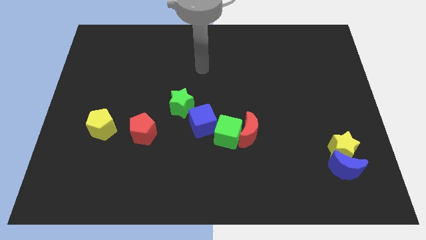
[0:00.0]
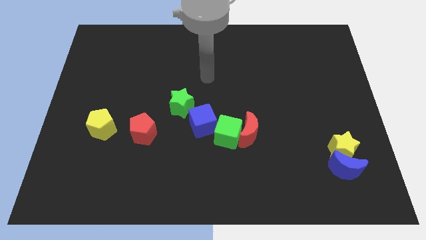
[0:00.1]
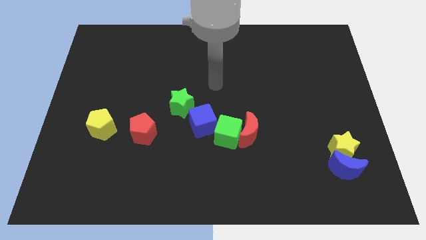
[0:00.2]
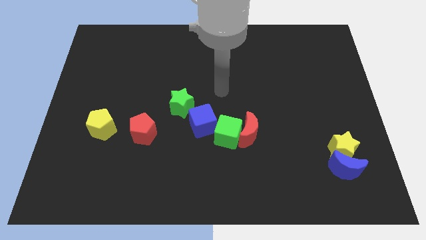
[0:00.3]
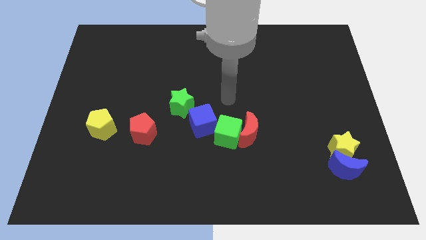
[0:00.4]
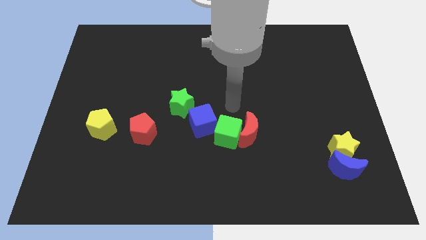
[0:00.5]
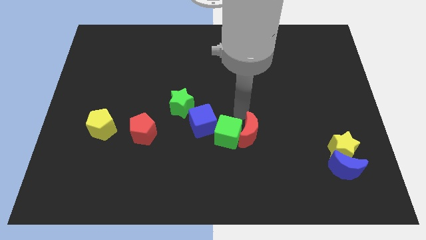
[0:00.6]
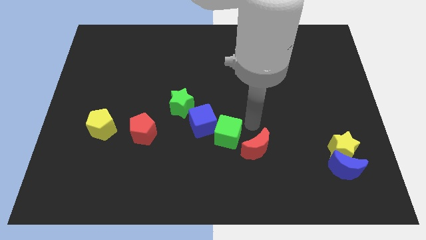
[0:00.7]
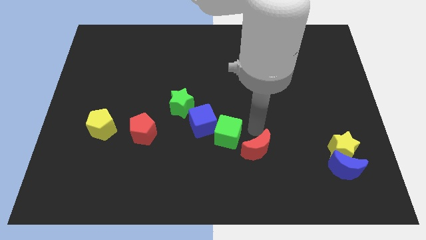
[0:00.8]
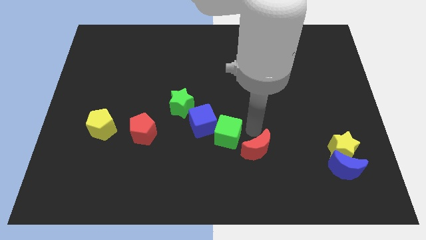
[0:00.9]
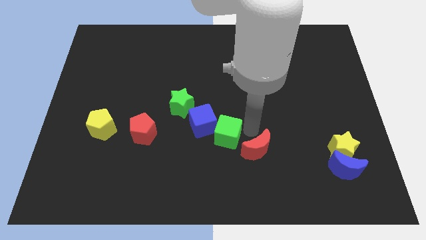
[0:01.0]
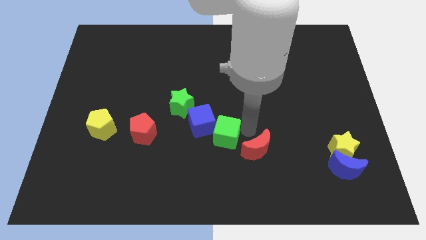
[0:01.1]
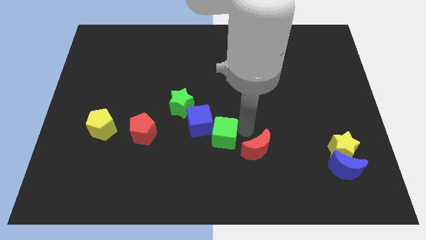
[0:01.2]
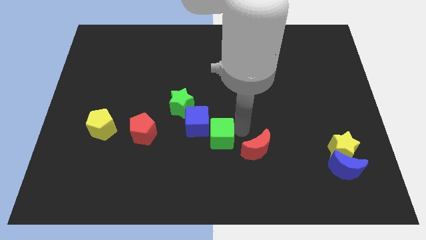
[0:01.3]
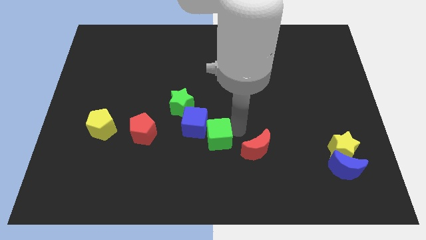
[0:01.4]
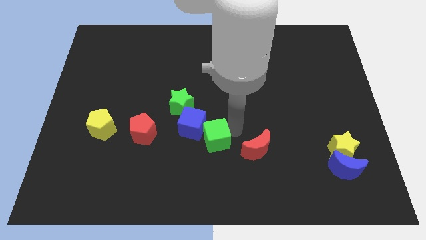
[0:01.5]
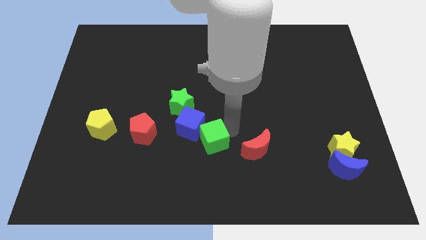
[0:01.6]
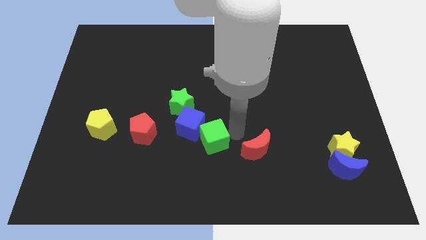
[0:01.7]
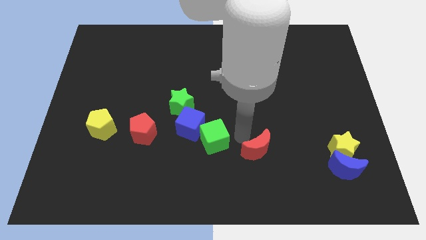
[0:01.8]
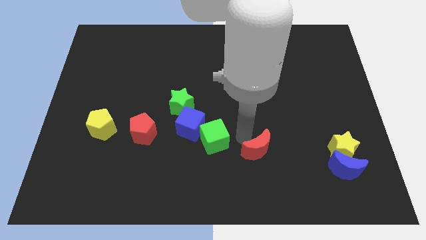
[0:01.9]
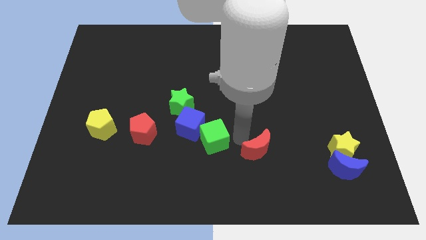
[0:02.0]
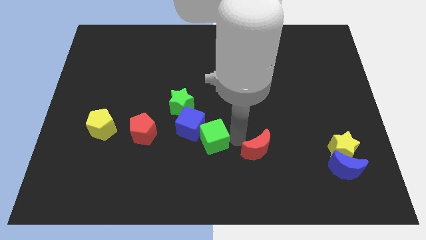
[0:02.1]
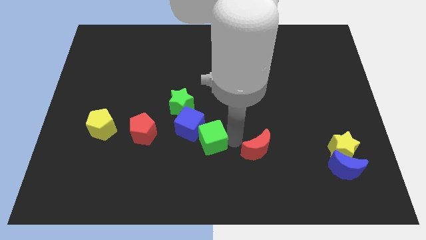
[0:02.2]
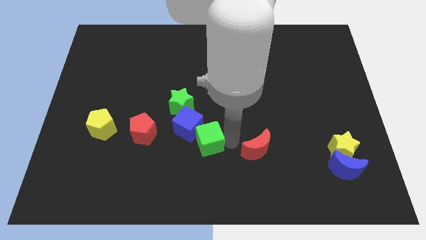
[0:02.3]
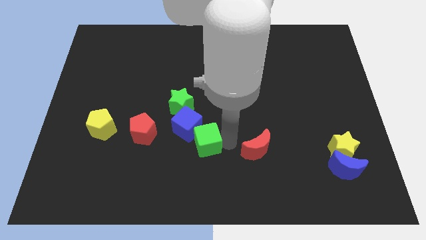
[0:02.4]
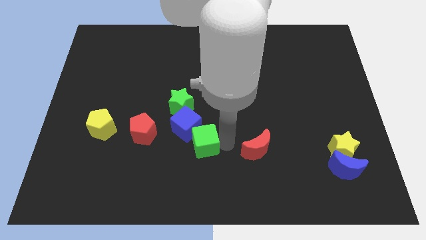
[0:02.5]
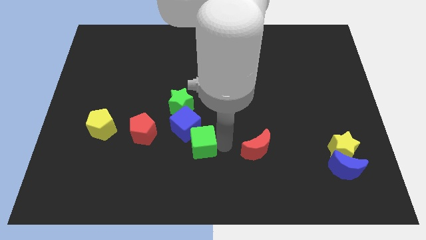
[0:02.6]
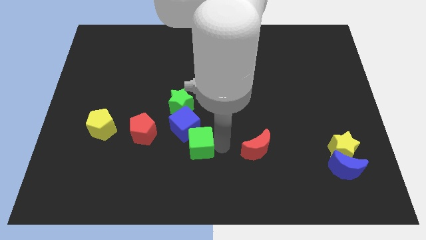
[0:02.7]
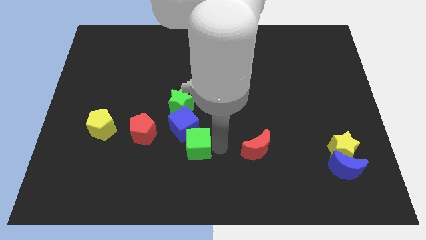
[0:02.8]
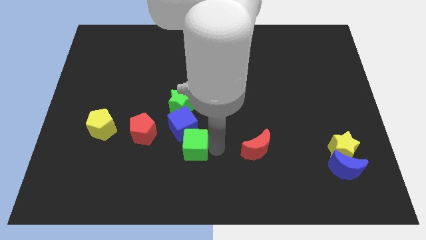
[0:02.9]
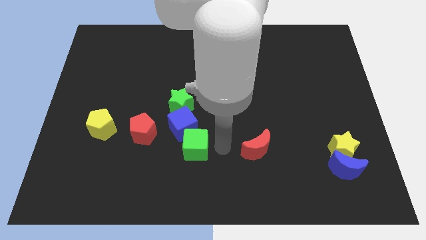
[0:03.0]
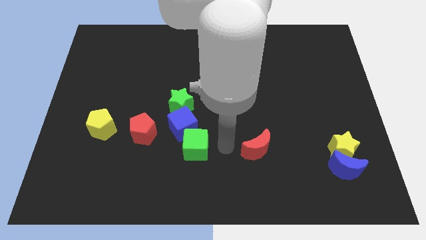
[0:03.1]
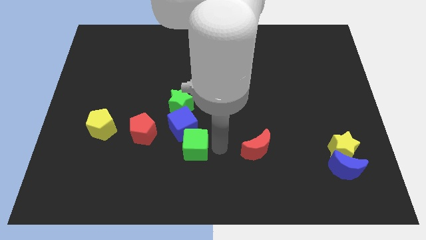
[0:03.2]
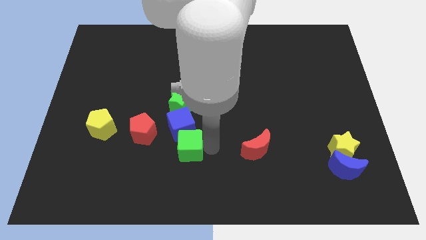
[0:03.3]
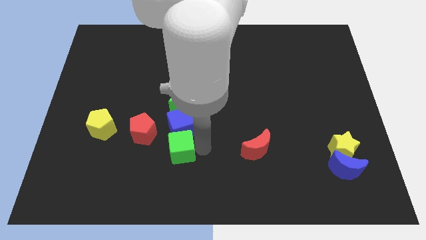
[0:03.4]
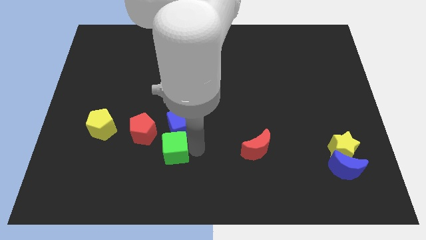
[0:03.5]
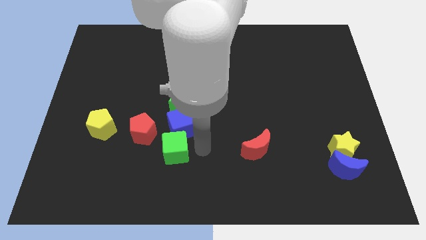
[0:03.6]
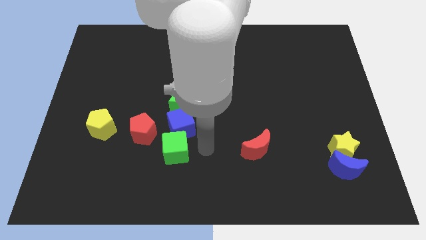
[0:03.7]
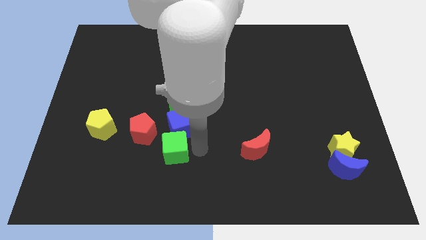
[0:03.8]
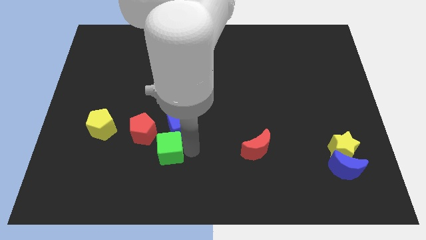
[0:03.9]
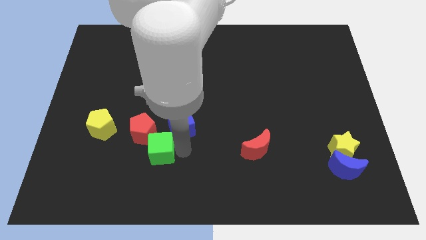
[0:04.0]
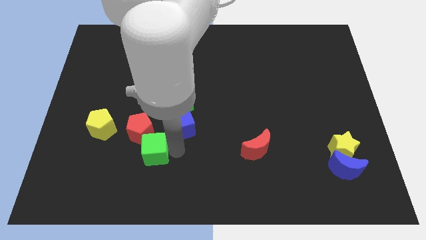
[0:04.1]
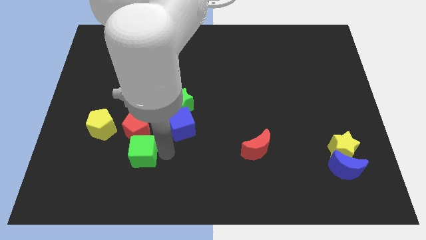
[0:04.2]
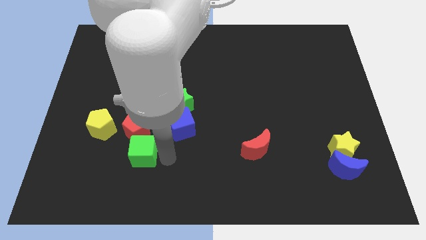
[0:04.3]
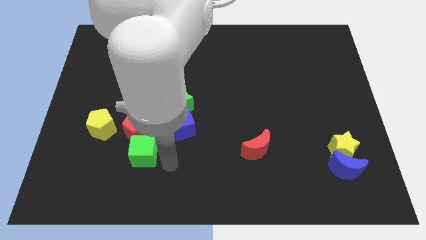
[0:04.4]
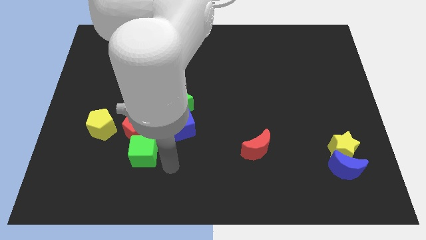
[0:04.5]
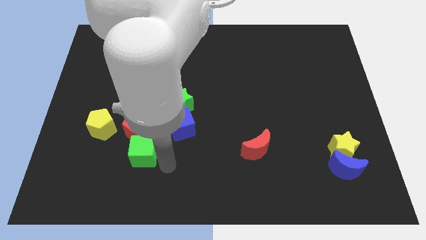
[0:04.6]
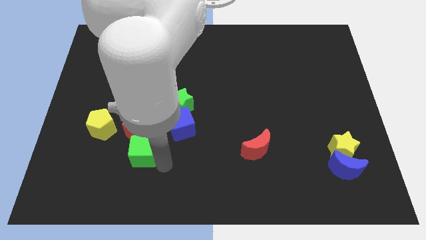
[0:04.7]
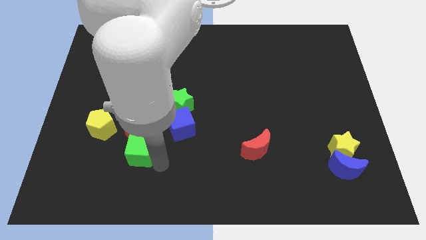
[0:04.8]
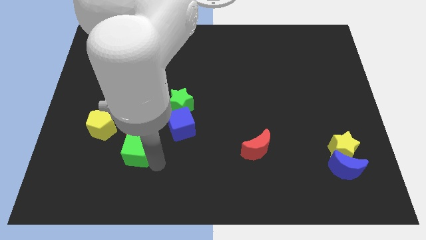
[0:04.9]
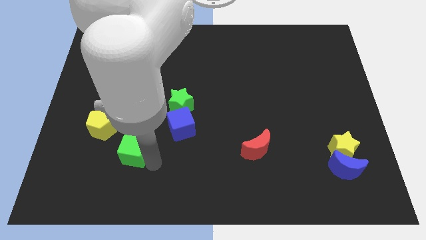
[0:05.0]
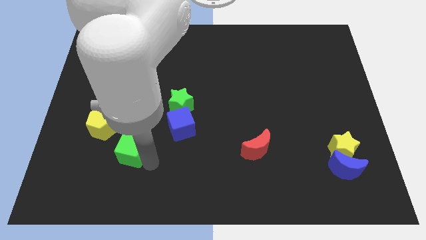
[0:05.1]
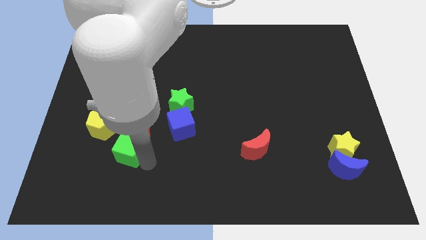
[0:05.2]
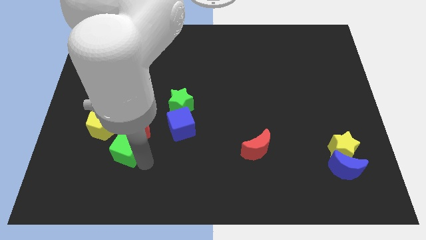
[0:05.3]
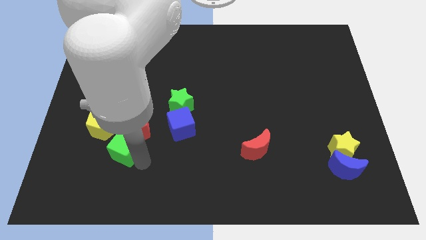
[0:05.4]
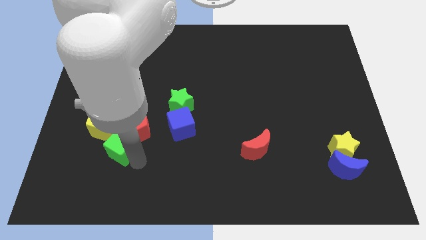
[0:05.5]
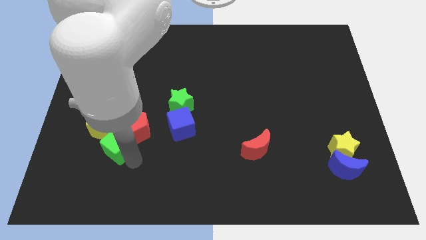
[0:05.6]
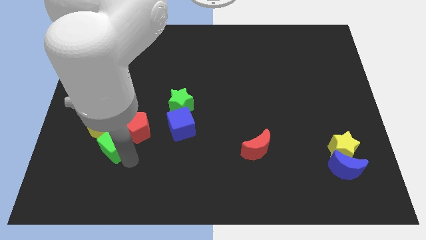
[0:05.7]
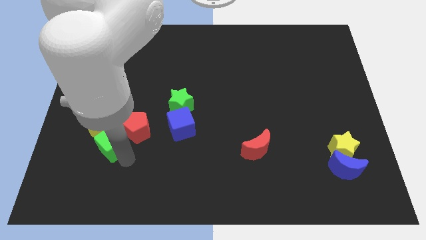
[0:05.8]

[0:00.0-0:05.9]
slide the green cube close to the yellow pentagon

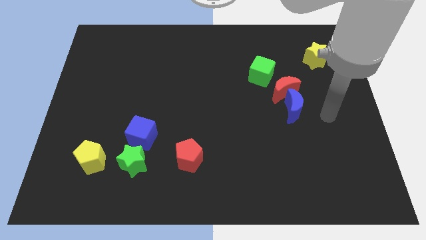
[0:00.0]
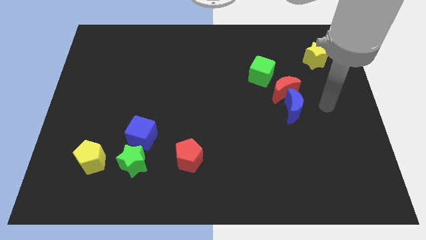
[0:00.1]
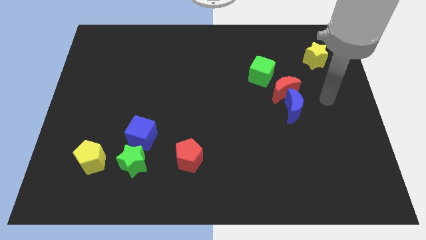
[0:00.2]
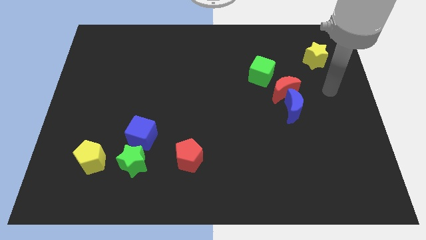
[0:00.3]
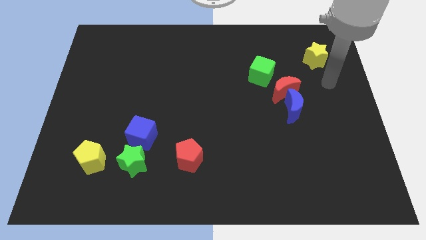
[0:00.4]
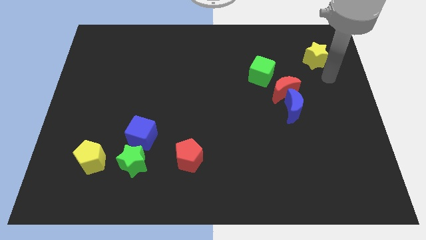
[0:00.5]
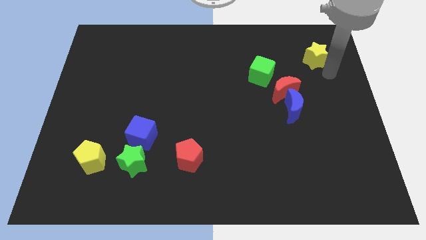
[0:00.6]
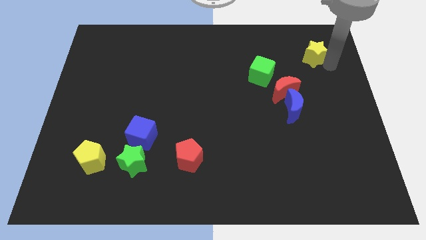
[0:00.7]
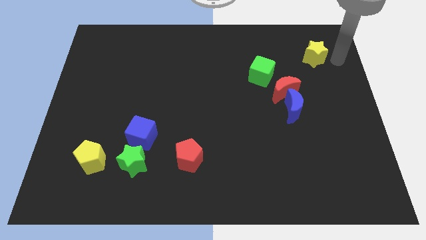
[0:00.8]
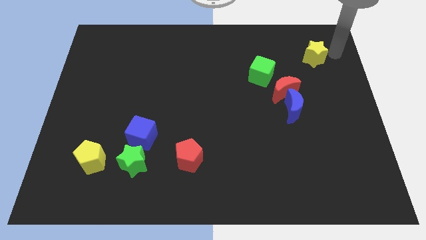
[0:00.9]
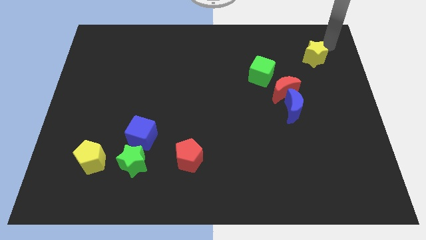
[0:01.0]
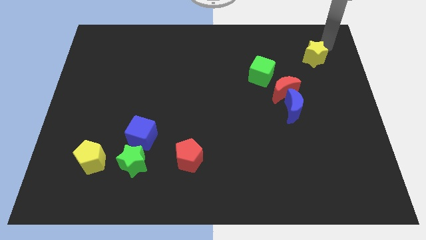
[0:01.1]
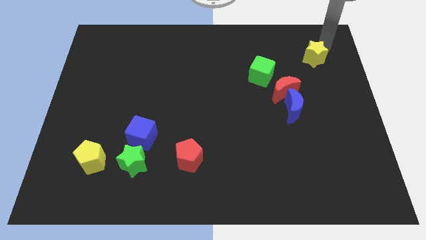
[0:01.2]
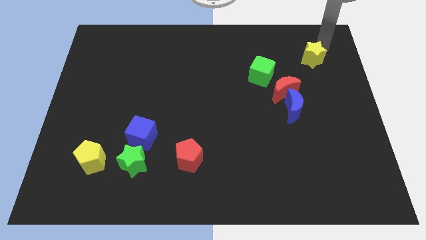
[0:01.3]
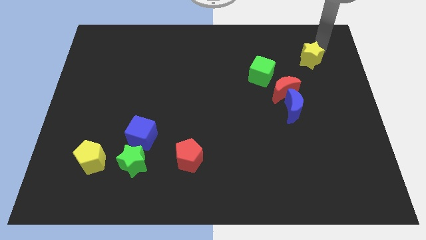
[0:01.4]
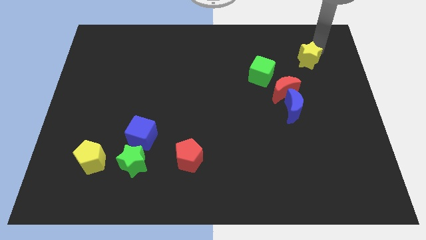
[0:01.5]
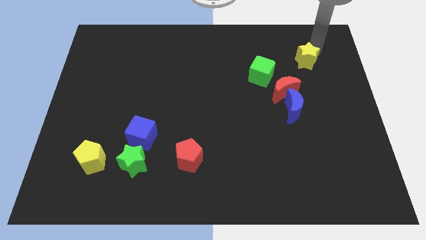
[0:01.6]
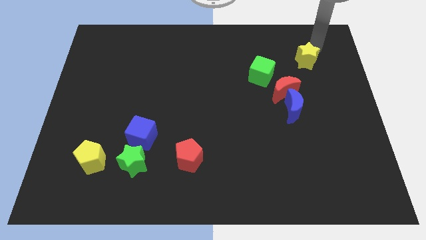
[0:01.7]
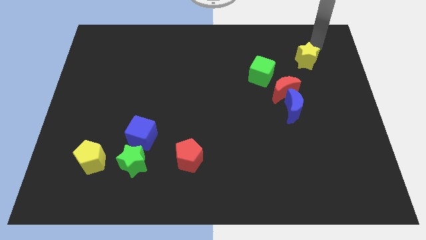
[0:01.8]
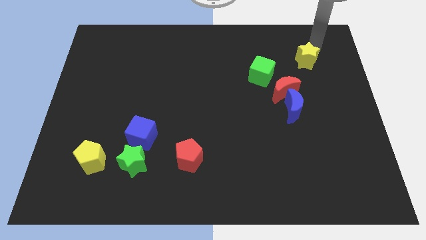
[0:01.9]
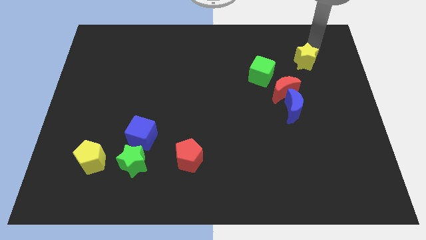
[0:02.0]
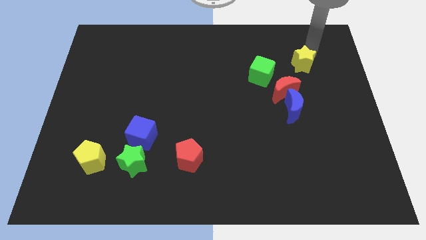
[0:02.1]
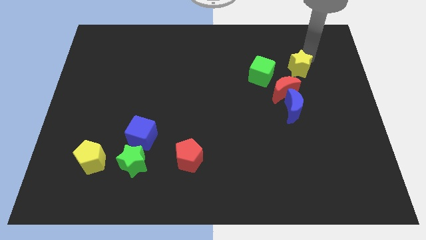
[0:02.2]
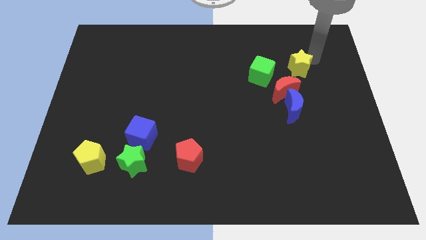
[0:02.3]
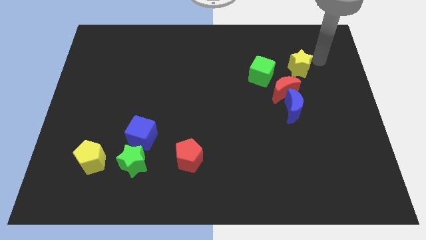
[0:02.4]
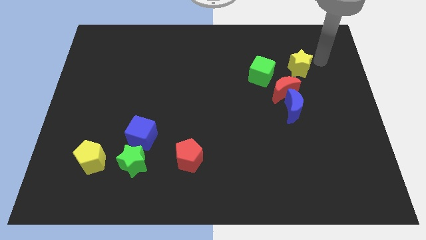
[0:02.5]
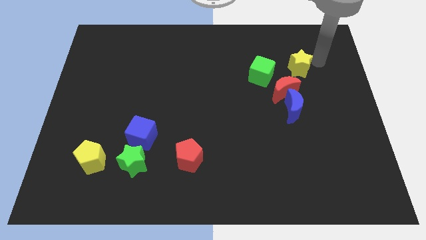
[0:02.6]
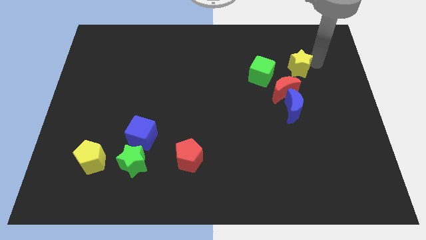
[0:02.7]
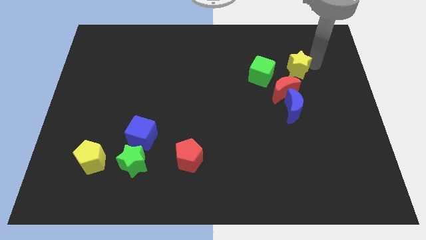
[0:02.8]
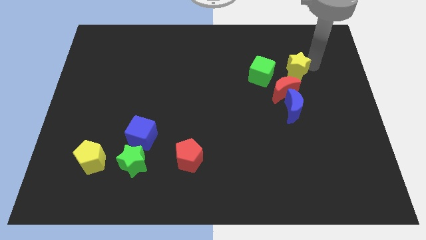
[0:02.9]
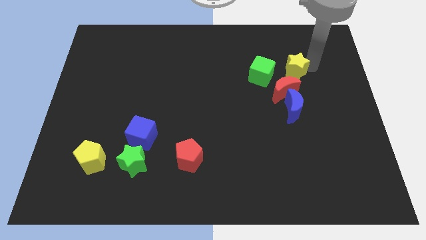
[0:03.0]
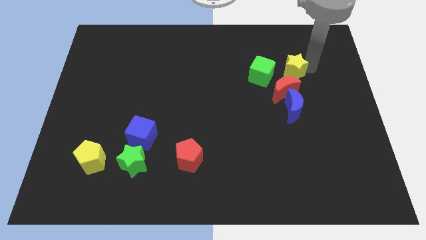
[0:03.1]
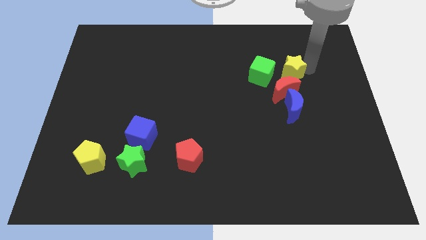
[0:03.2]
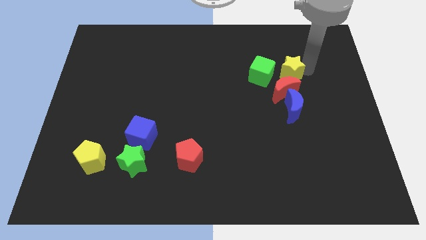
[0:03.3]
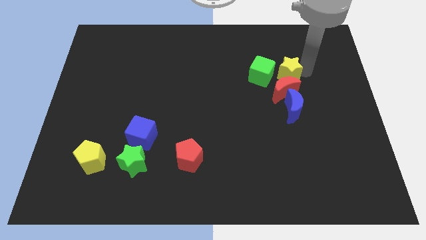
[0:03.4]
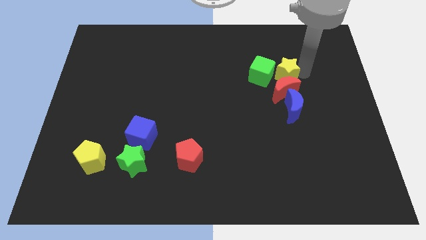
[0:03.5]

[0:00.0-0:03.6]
push the yellow star towards the green cube
